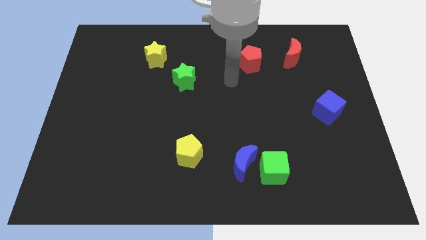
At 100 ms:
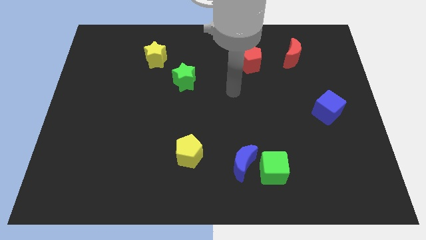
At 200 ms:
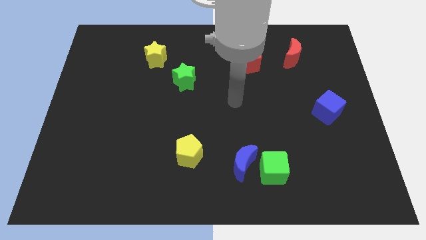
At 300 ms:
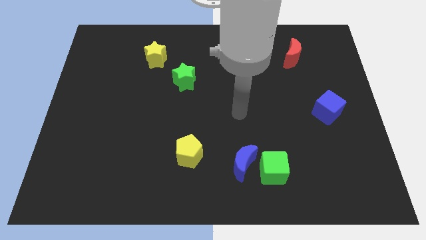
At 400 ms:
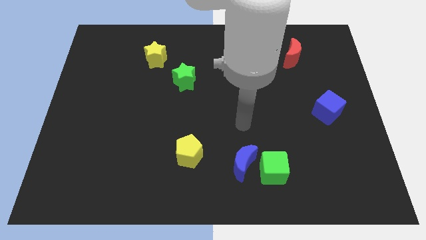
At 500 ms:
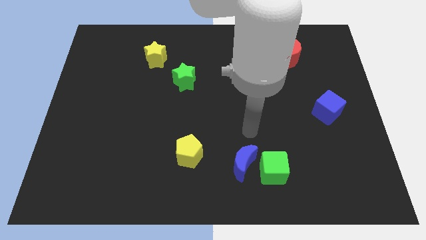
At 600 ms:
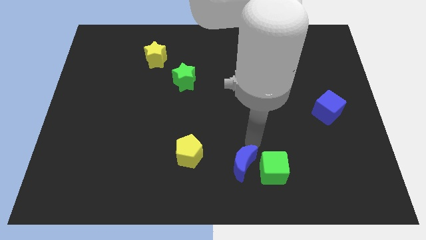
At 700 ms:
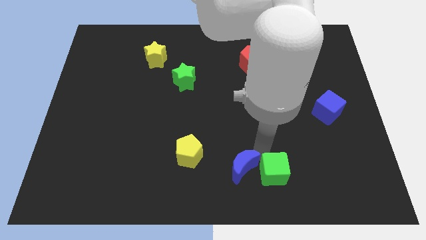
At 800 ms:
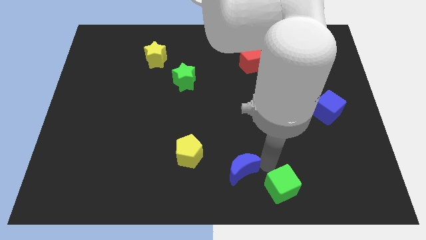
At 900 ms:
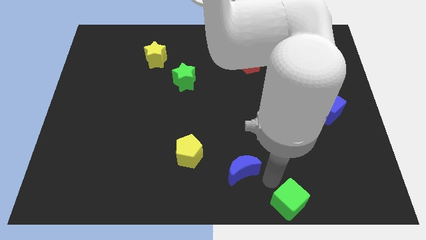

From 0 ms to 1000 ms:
separate the blue moon from the green cube

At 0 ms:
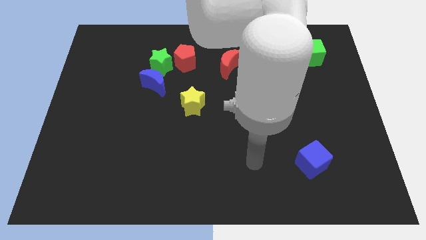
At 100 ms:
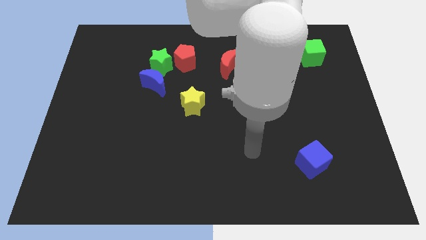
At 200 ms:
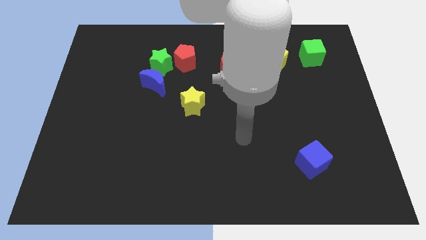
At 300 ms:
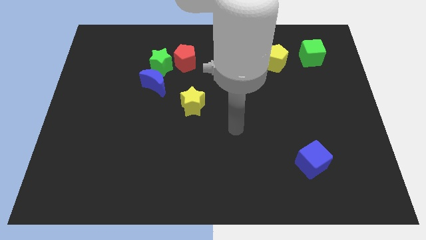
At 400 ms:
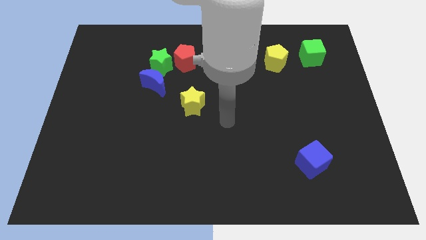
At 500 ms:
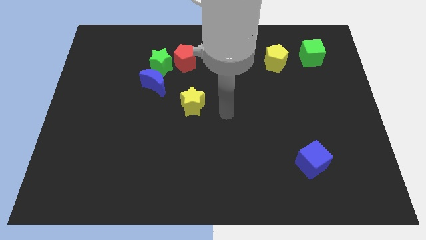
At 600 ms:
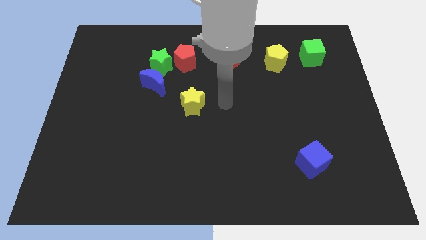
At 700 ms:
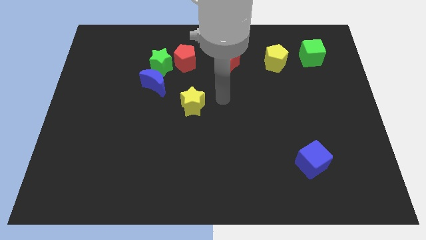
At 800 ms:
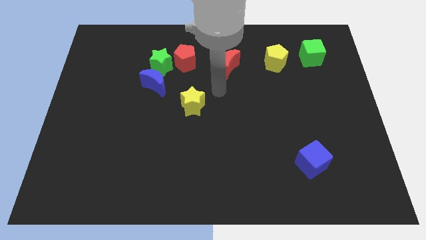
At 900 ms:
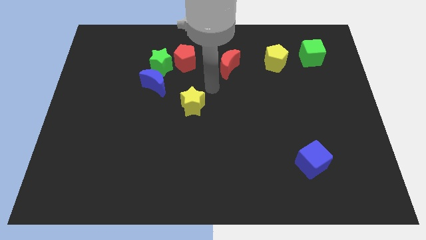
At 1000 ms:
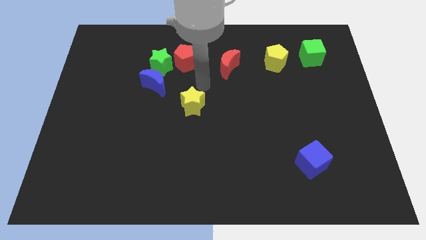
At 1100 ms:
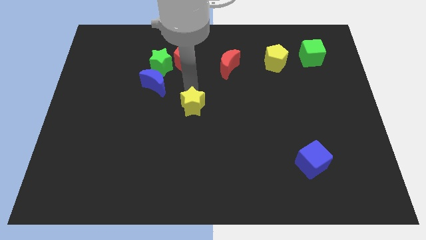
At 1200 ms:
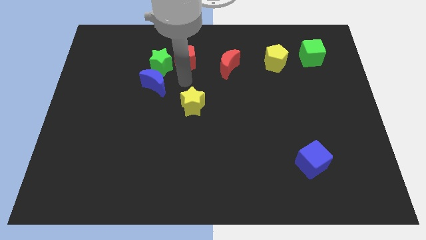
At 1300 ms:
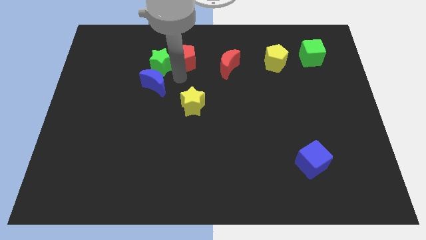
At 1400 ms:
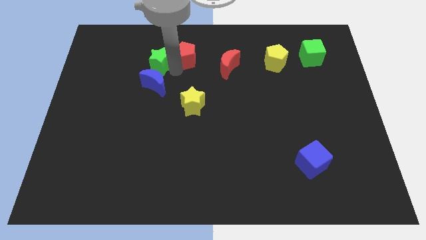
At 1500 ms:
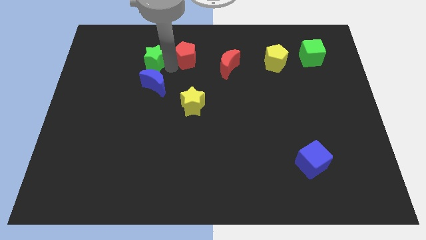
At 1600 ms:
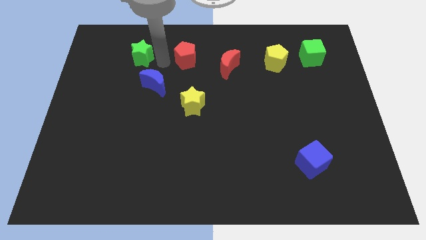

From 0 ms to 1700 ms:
pull the red pentagon apart from the green star

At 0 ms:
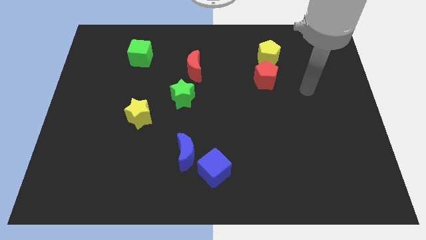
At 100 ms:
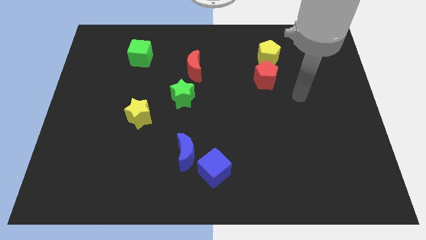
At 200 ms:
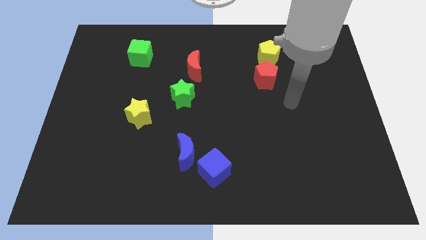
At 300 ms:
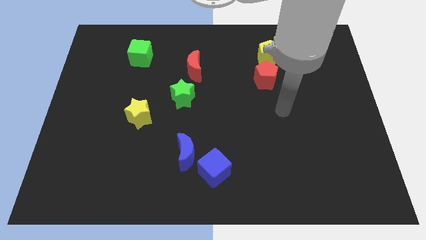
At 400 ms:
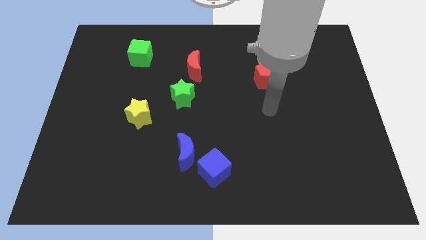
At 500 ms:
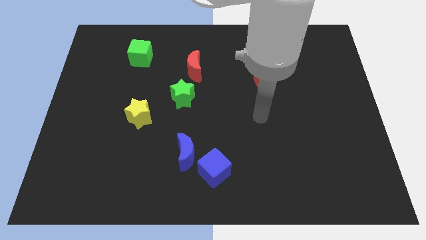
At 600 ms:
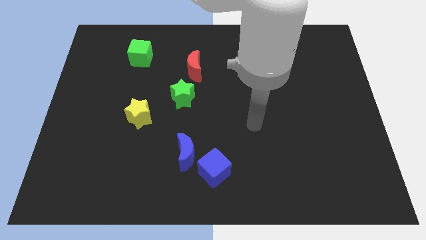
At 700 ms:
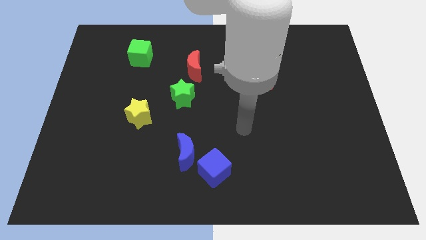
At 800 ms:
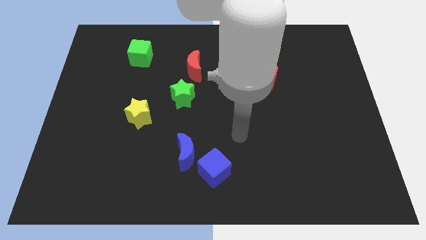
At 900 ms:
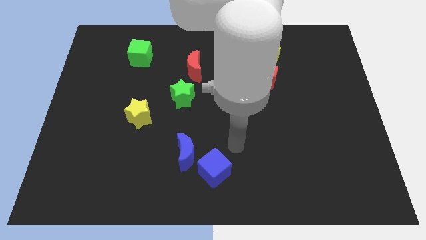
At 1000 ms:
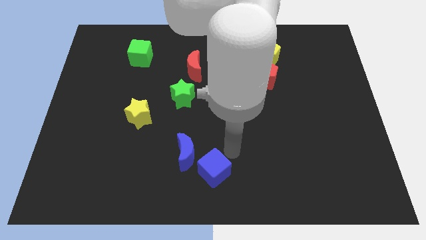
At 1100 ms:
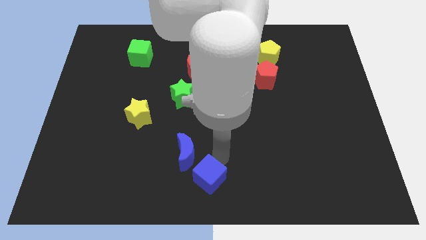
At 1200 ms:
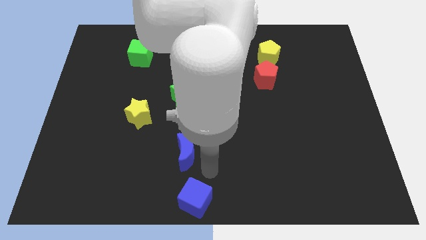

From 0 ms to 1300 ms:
separate the blue moon from the blue cube

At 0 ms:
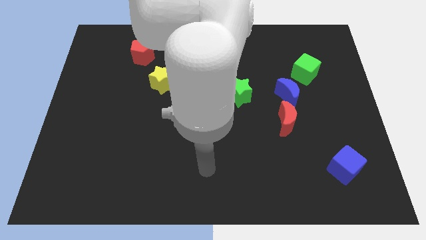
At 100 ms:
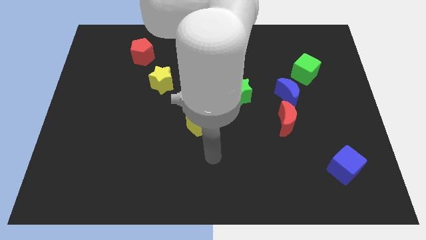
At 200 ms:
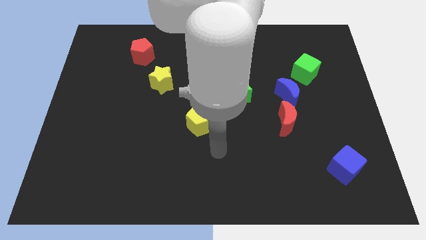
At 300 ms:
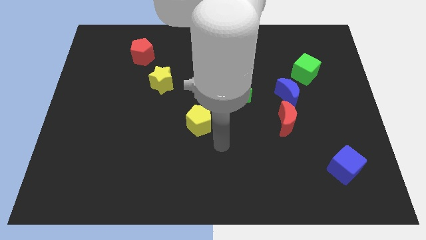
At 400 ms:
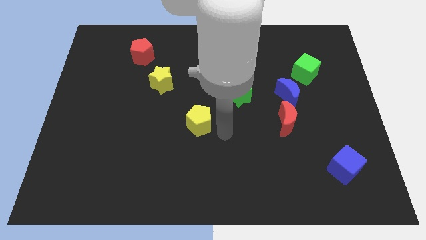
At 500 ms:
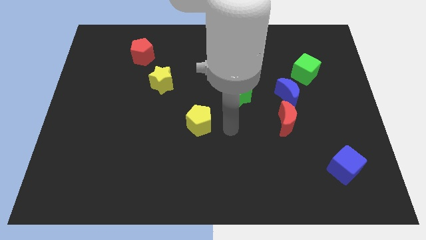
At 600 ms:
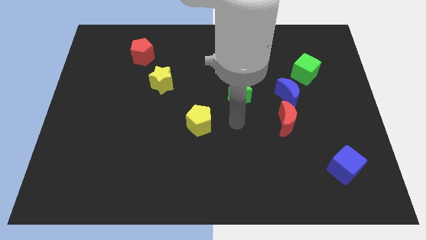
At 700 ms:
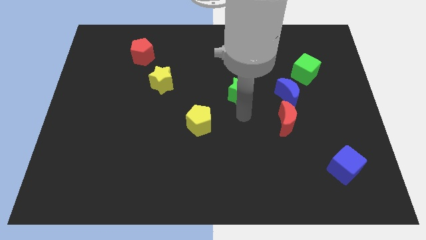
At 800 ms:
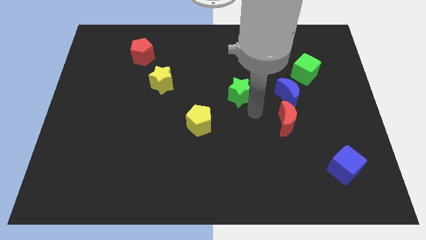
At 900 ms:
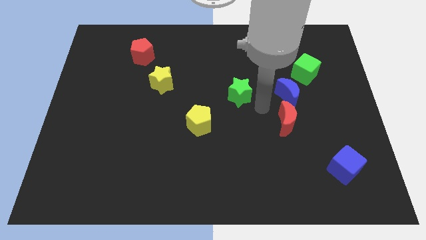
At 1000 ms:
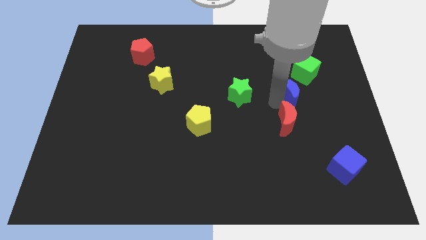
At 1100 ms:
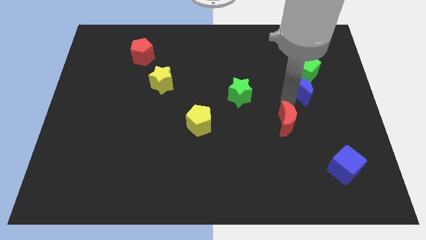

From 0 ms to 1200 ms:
move the red moon away from the blue moon

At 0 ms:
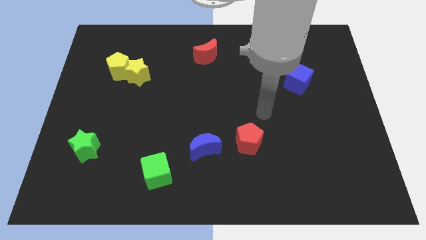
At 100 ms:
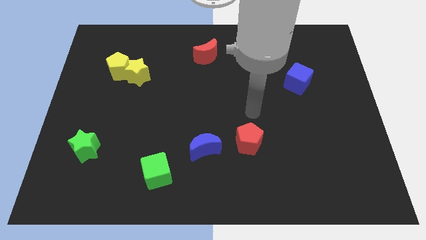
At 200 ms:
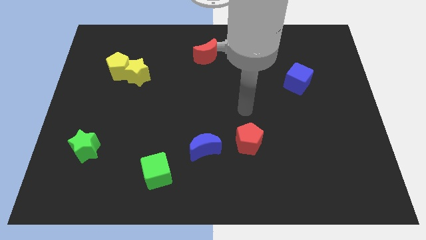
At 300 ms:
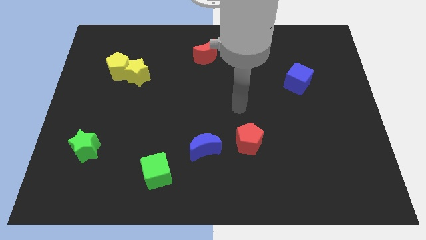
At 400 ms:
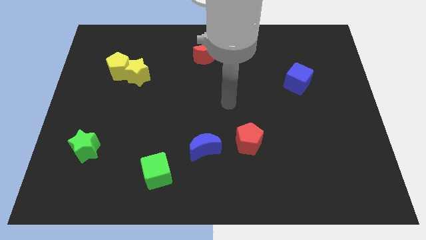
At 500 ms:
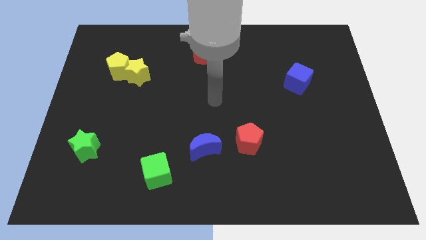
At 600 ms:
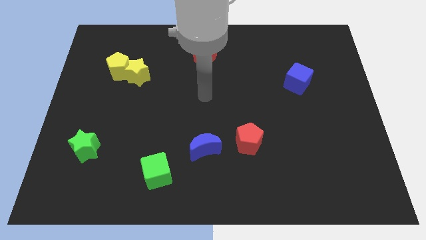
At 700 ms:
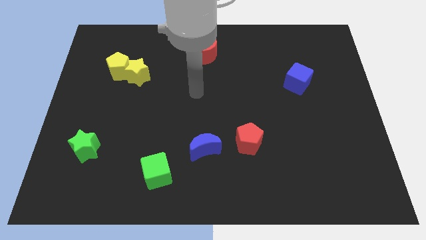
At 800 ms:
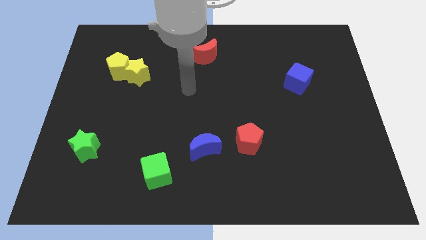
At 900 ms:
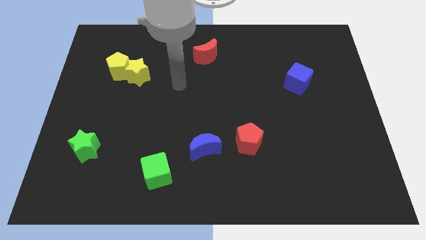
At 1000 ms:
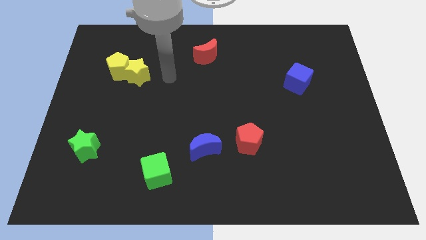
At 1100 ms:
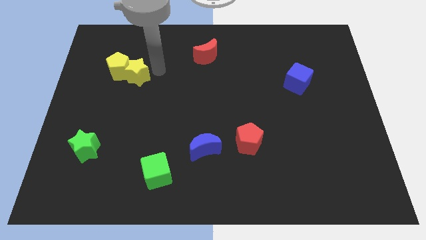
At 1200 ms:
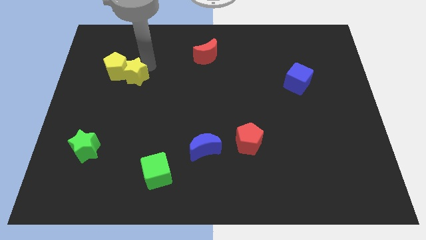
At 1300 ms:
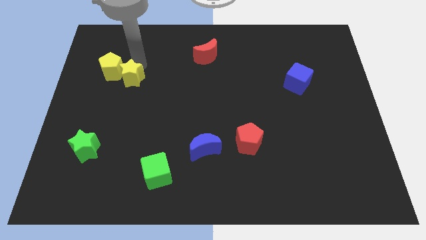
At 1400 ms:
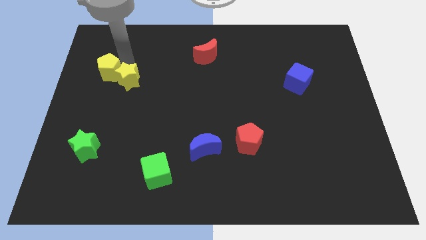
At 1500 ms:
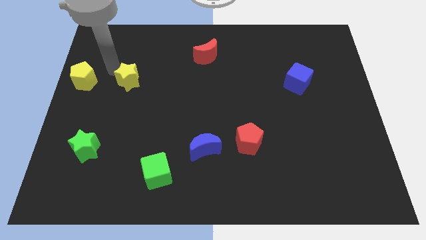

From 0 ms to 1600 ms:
move the yellow star away from the yellow pentagon

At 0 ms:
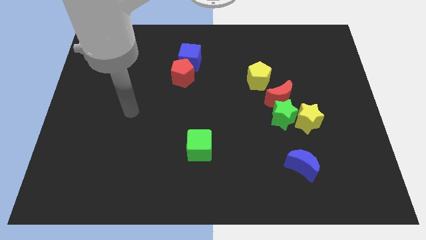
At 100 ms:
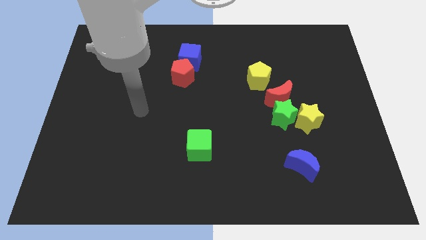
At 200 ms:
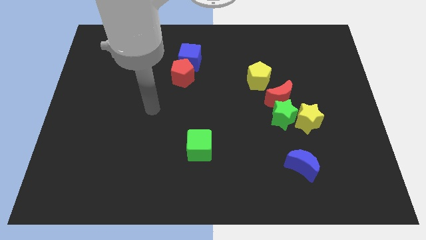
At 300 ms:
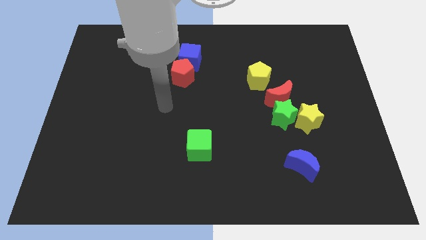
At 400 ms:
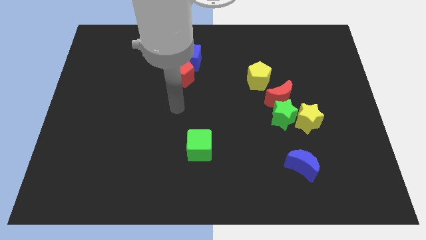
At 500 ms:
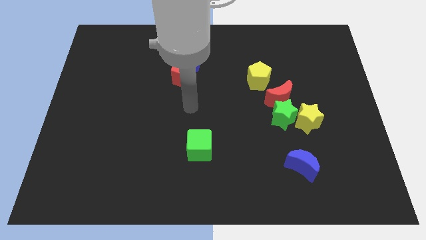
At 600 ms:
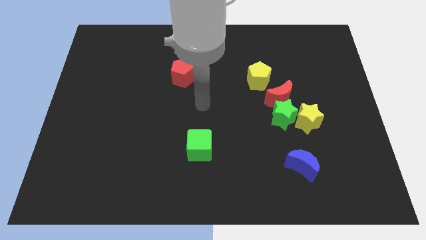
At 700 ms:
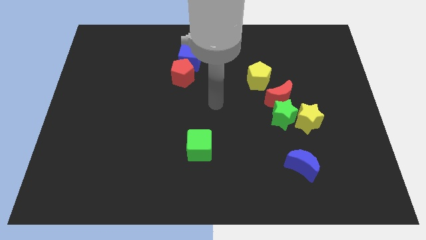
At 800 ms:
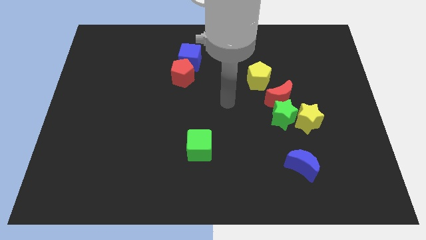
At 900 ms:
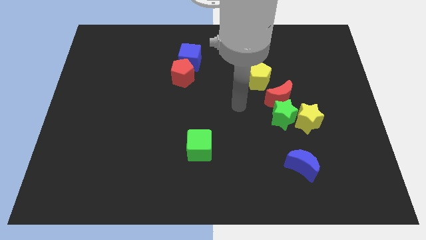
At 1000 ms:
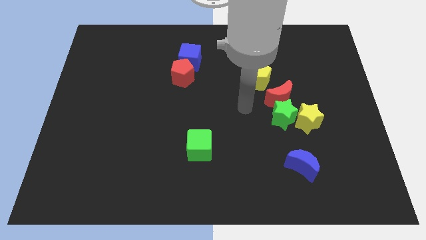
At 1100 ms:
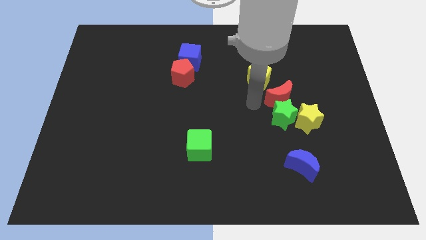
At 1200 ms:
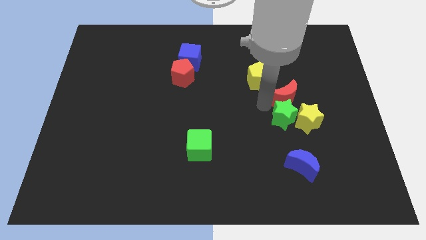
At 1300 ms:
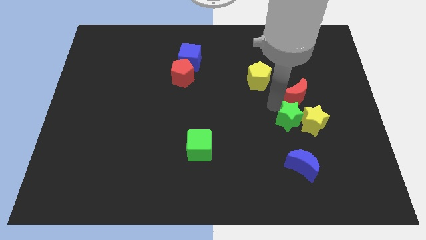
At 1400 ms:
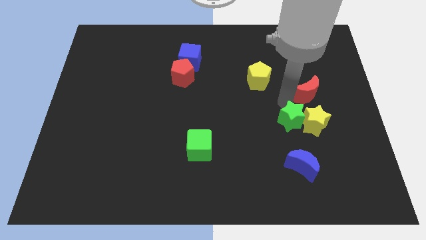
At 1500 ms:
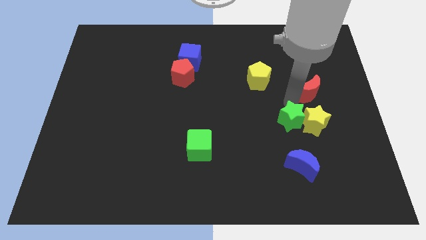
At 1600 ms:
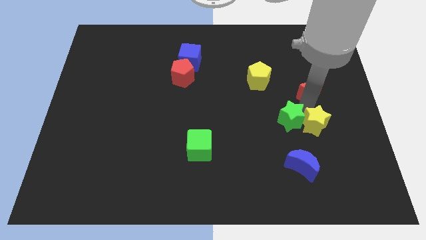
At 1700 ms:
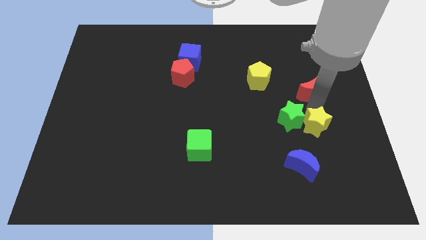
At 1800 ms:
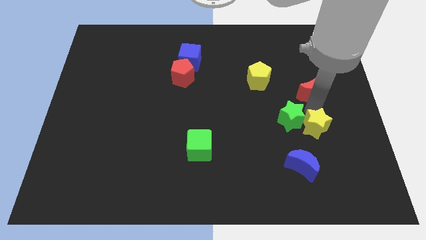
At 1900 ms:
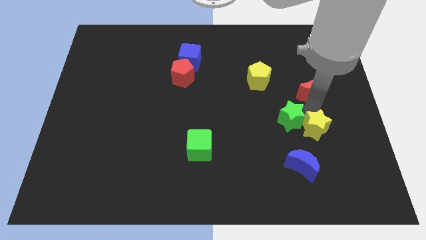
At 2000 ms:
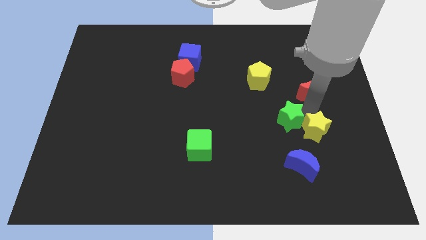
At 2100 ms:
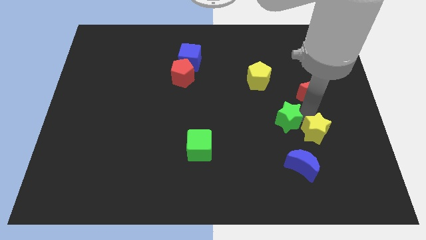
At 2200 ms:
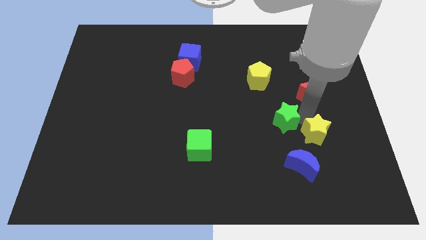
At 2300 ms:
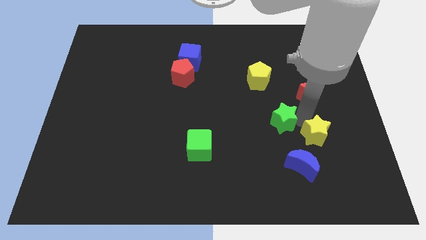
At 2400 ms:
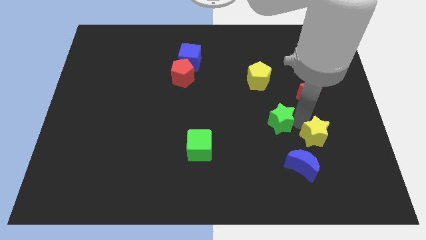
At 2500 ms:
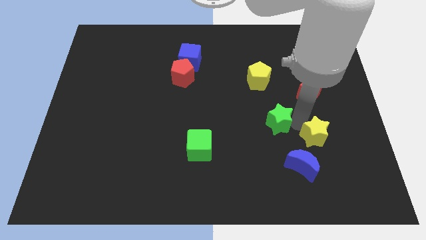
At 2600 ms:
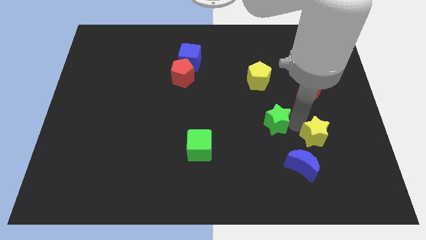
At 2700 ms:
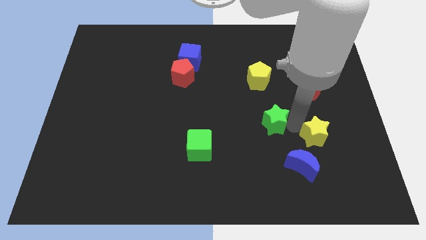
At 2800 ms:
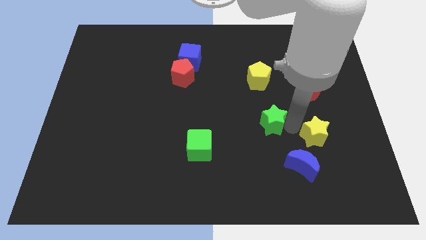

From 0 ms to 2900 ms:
separate the green star from the yellow star and red moon
